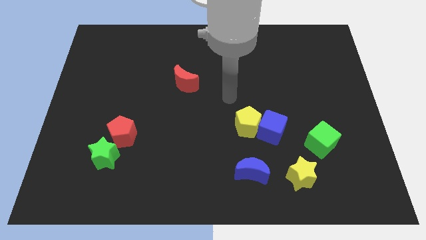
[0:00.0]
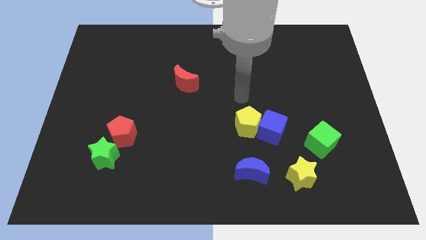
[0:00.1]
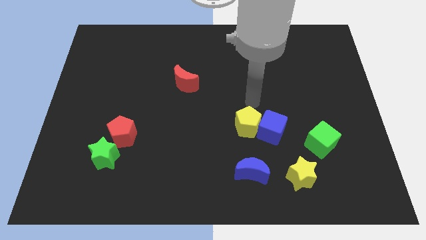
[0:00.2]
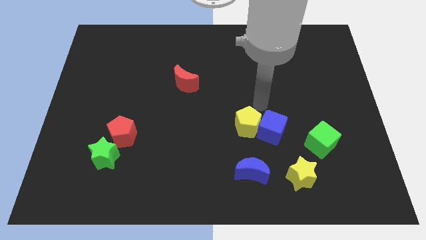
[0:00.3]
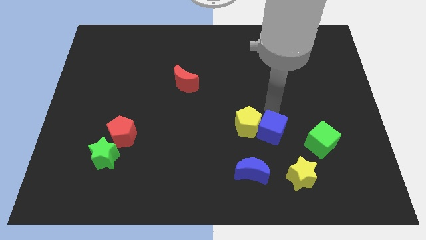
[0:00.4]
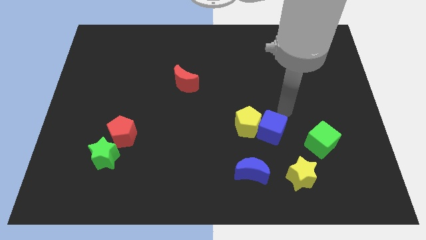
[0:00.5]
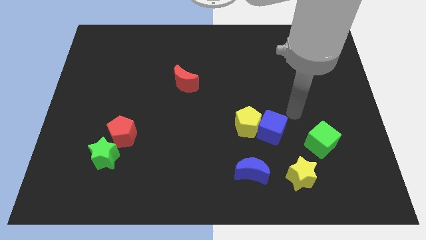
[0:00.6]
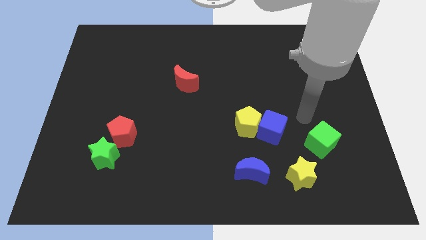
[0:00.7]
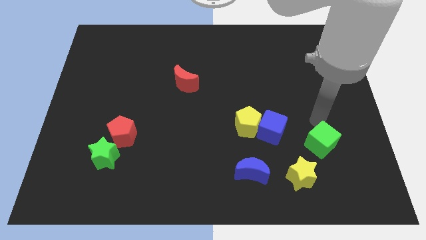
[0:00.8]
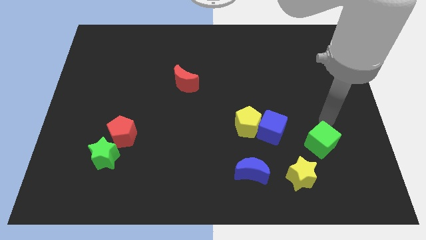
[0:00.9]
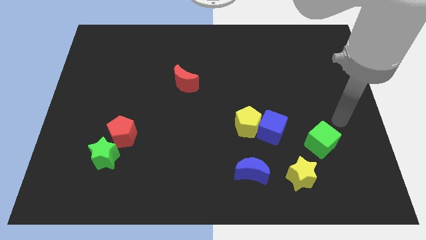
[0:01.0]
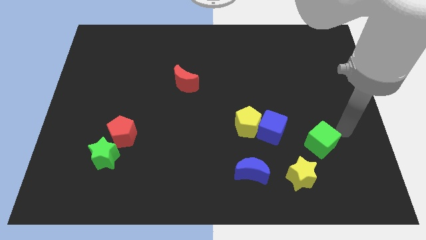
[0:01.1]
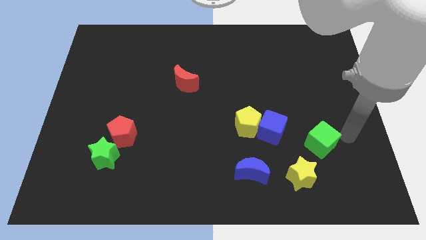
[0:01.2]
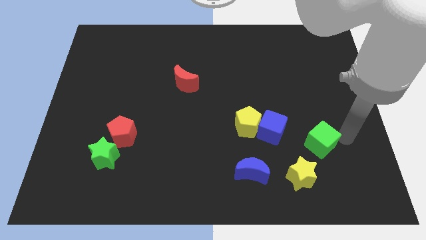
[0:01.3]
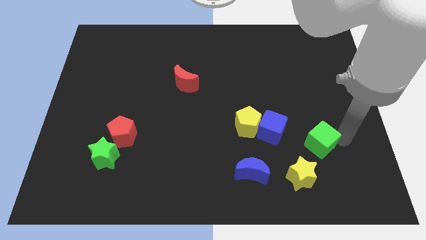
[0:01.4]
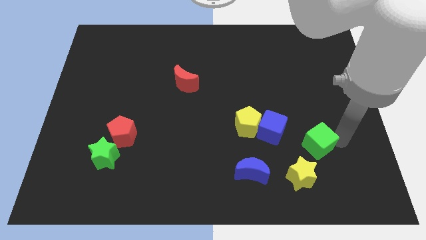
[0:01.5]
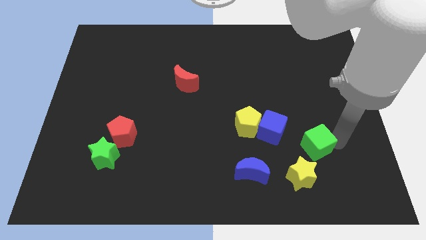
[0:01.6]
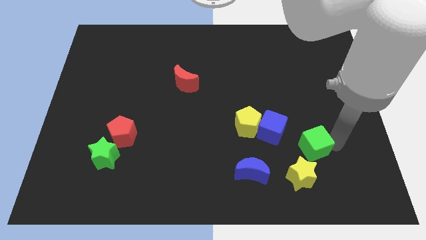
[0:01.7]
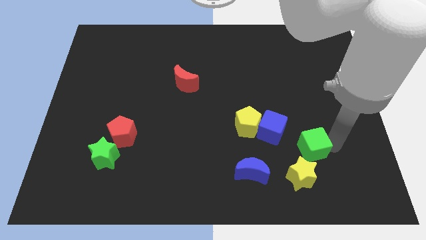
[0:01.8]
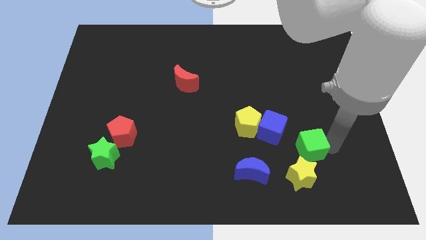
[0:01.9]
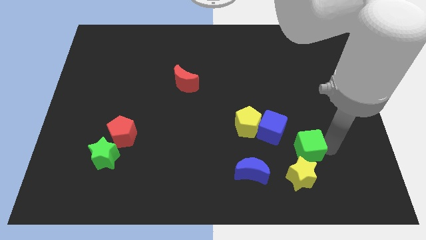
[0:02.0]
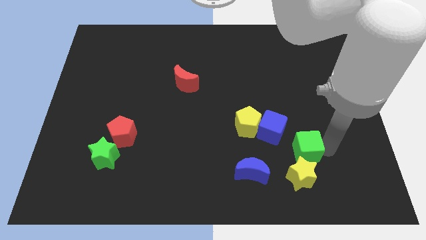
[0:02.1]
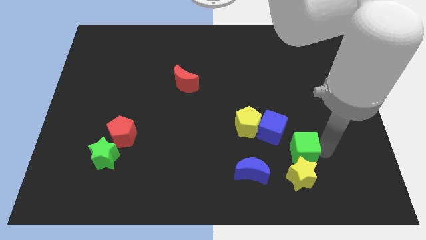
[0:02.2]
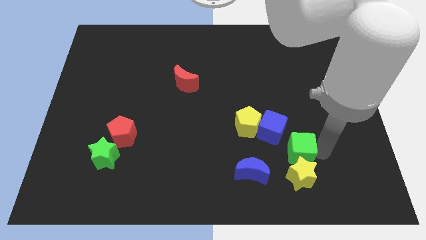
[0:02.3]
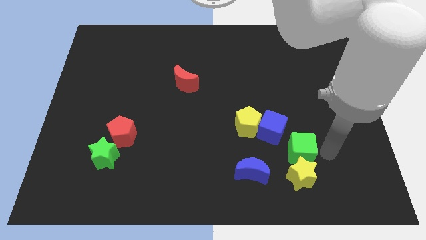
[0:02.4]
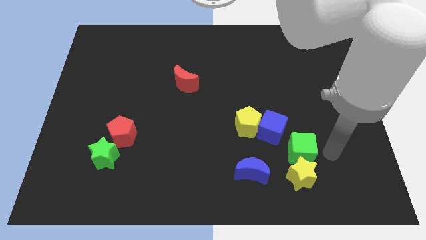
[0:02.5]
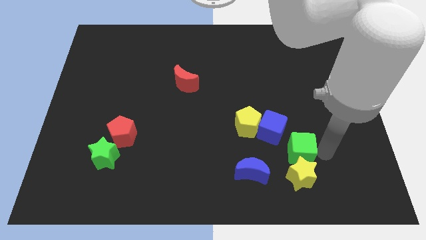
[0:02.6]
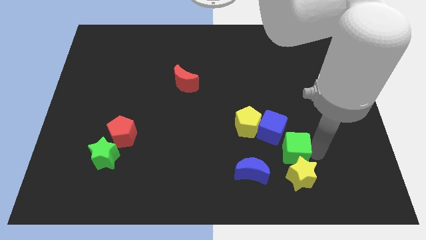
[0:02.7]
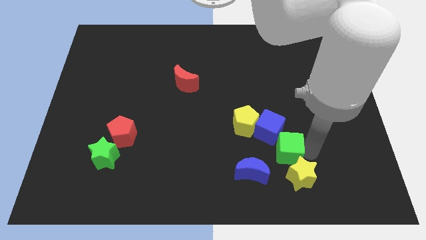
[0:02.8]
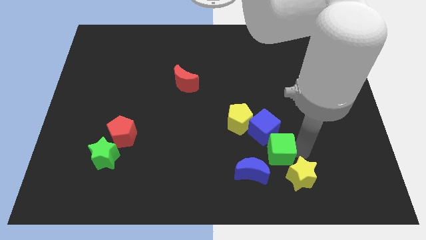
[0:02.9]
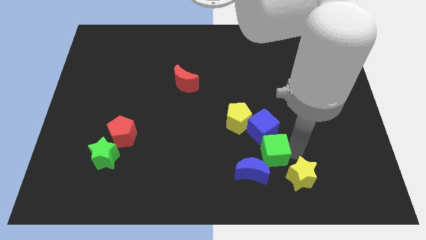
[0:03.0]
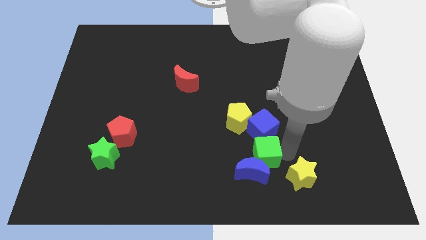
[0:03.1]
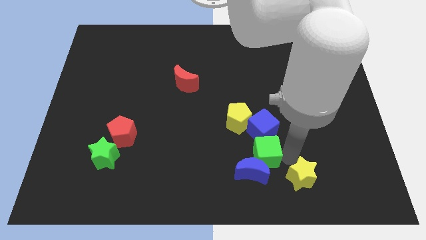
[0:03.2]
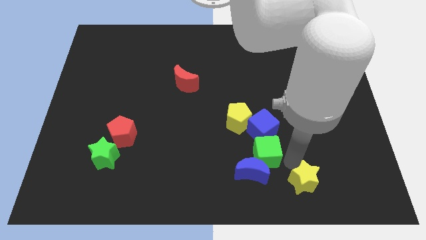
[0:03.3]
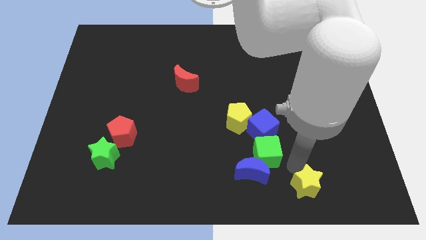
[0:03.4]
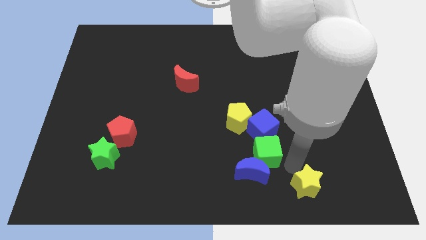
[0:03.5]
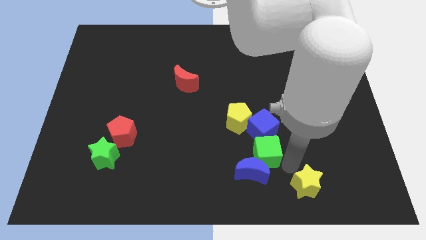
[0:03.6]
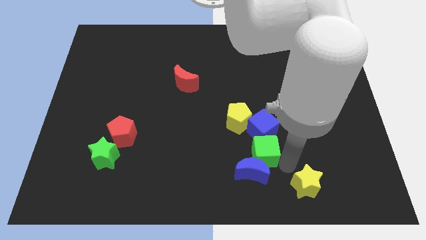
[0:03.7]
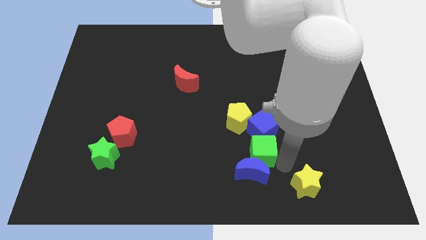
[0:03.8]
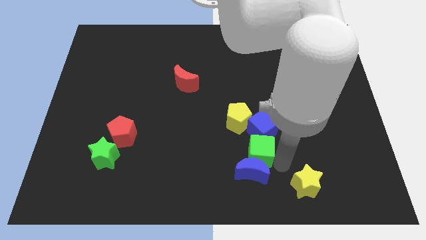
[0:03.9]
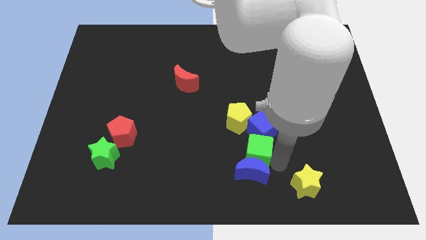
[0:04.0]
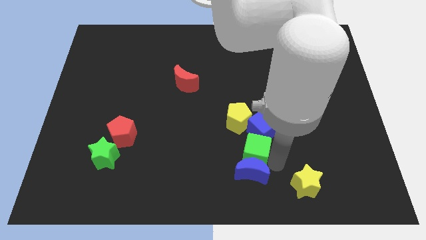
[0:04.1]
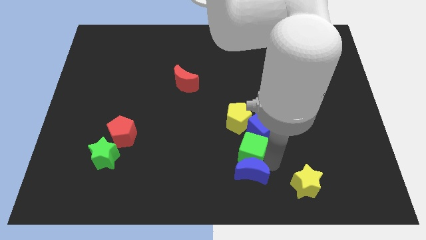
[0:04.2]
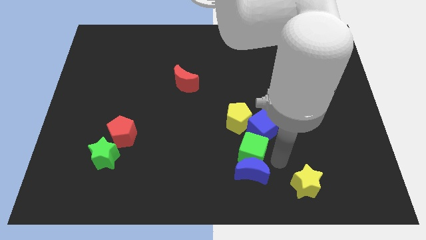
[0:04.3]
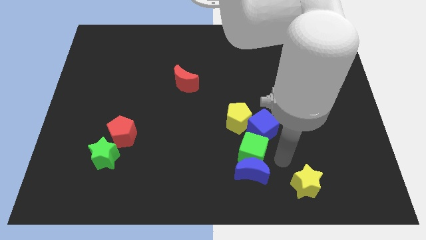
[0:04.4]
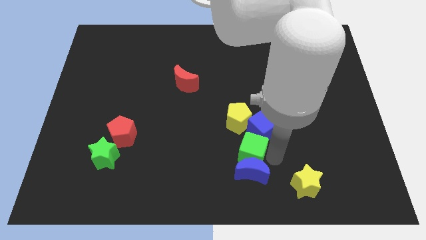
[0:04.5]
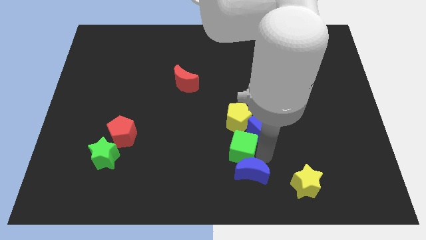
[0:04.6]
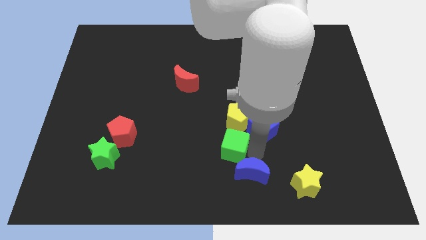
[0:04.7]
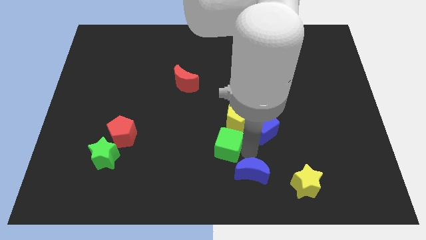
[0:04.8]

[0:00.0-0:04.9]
move the green cube to the left

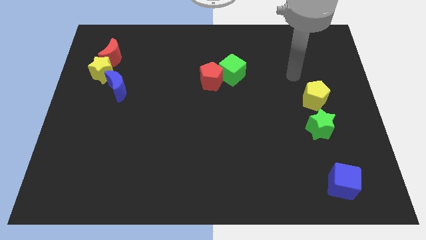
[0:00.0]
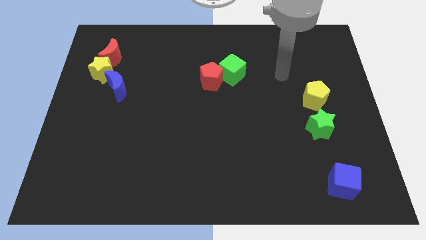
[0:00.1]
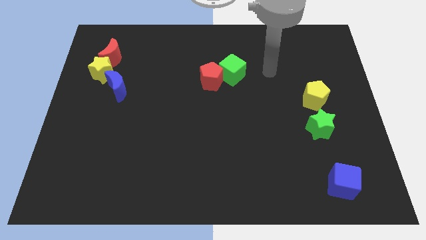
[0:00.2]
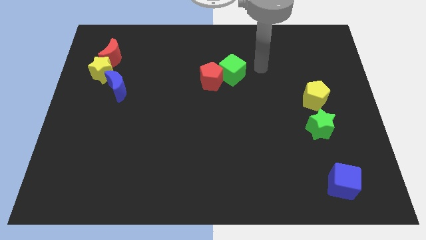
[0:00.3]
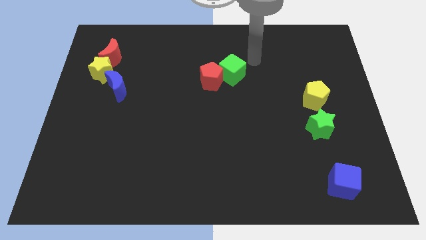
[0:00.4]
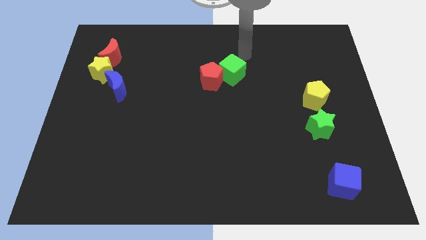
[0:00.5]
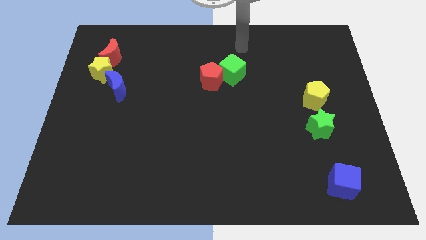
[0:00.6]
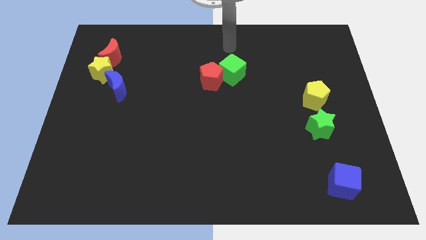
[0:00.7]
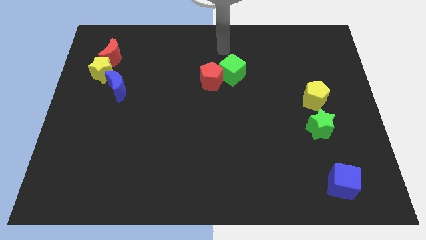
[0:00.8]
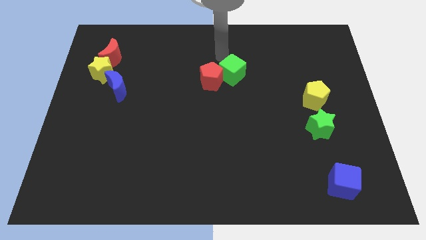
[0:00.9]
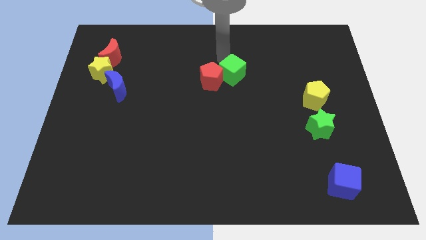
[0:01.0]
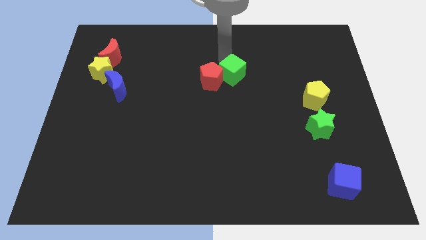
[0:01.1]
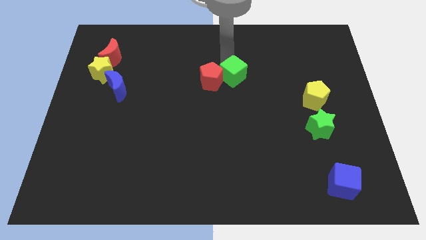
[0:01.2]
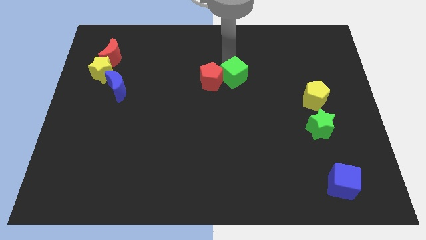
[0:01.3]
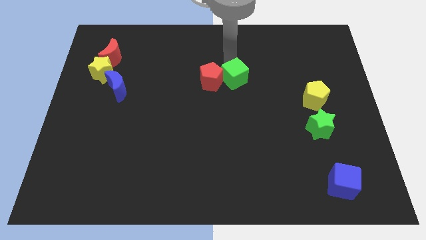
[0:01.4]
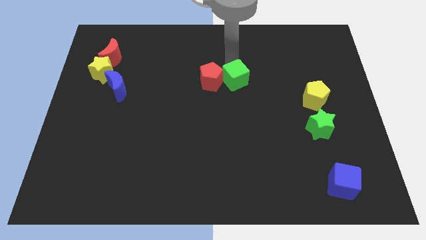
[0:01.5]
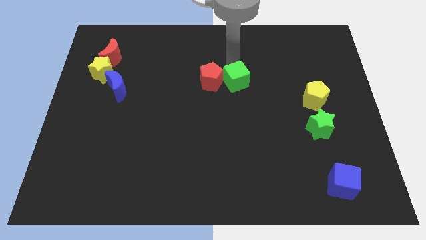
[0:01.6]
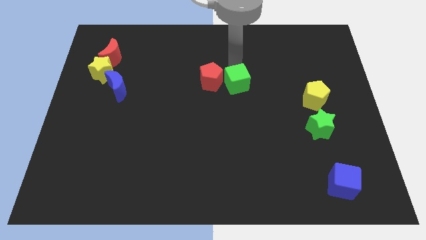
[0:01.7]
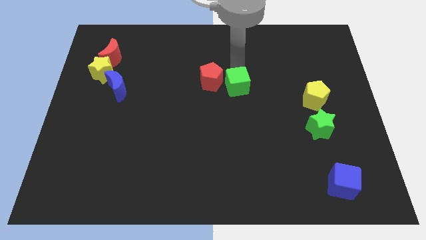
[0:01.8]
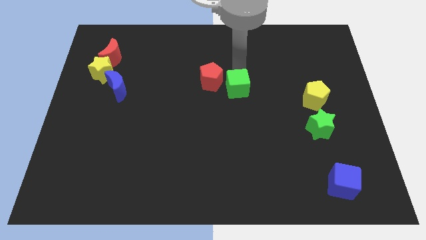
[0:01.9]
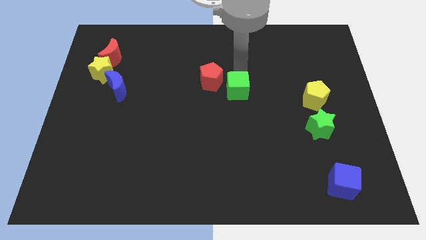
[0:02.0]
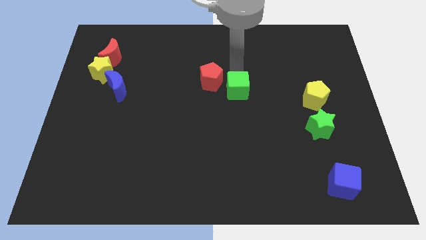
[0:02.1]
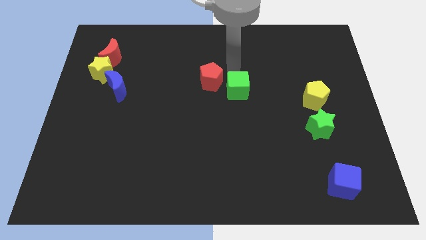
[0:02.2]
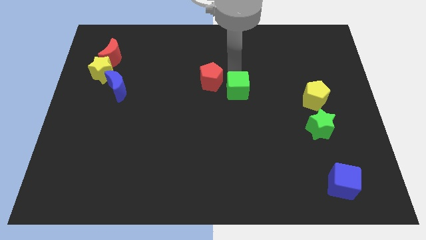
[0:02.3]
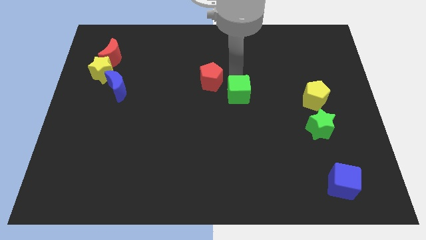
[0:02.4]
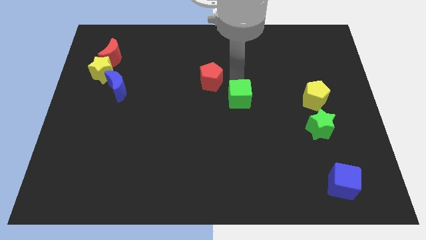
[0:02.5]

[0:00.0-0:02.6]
move the green cube slightly down

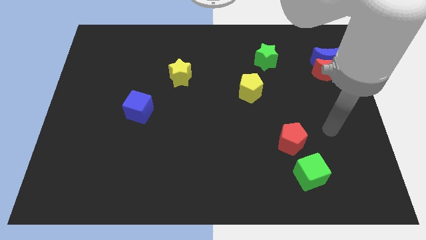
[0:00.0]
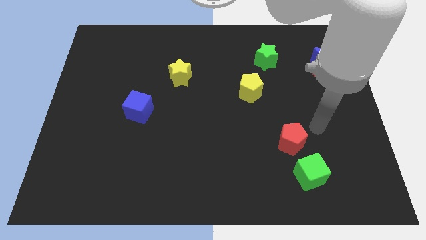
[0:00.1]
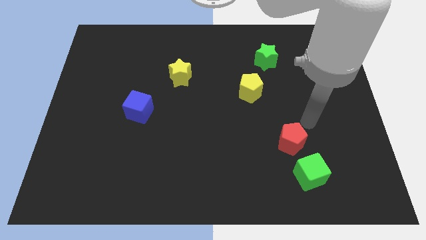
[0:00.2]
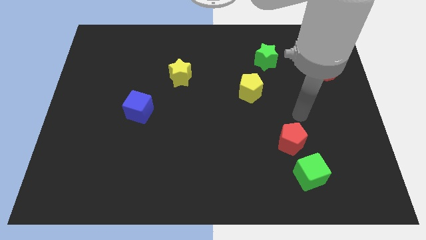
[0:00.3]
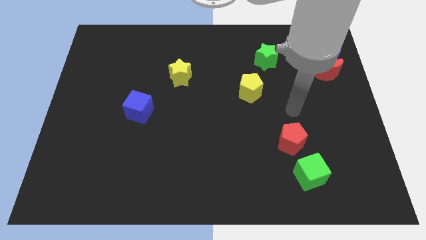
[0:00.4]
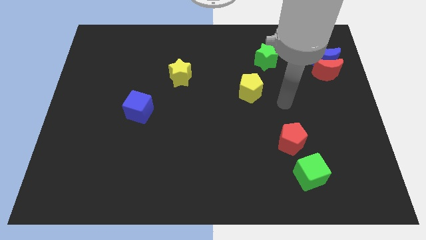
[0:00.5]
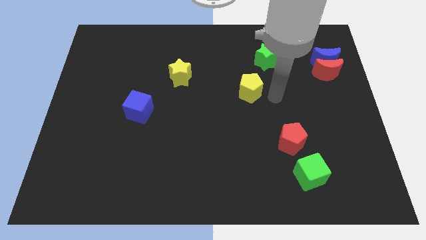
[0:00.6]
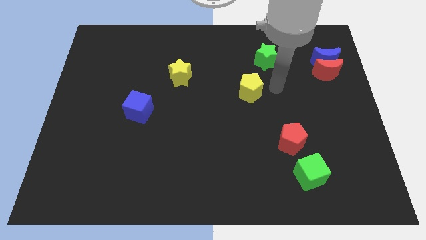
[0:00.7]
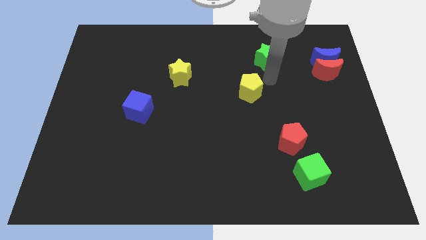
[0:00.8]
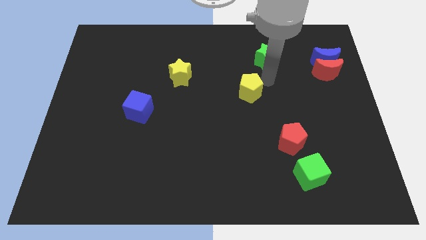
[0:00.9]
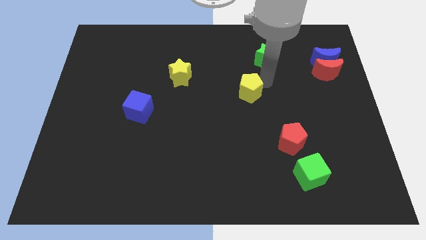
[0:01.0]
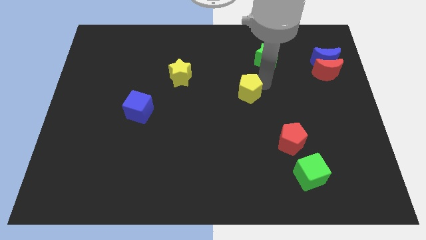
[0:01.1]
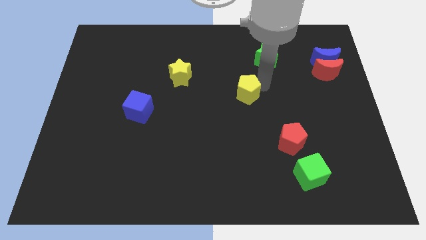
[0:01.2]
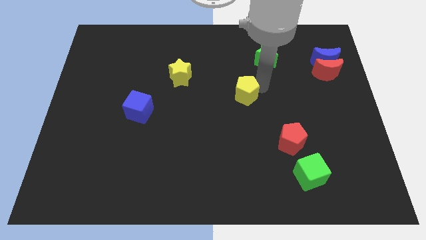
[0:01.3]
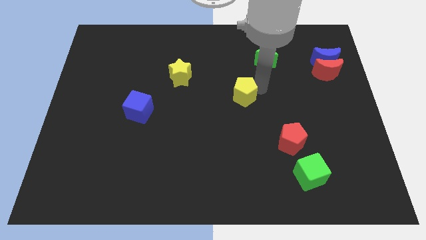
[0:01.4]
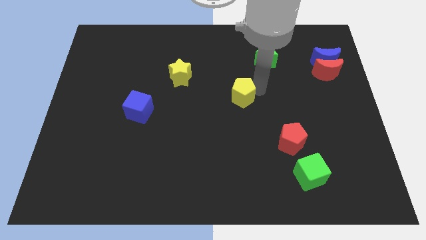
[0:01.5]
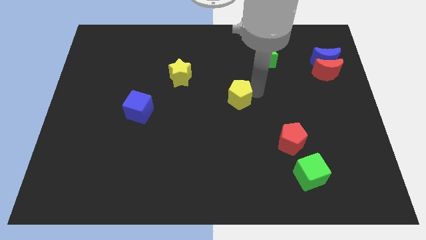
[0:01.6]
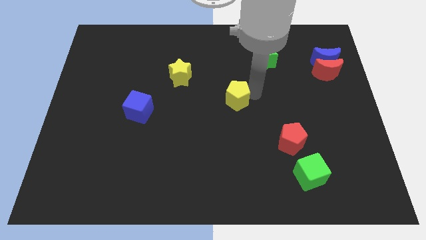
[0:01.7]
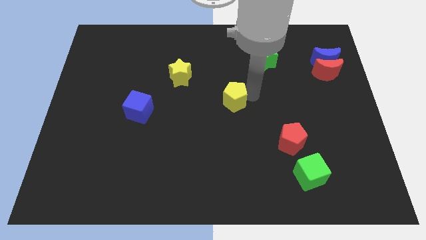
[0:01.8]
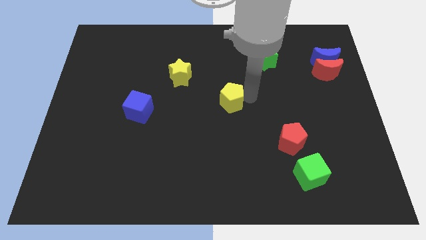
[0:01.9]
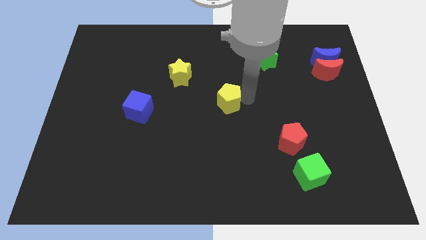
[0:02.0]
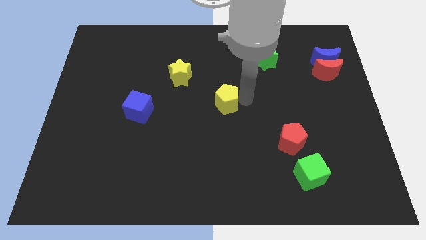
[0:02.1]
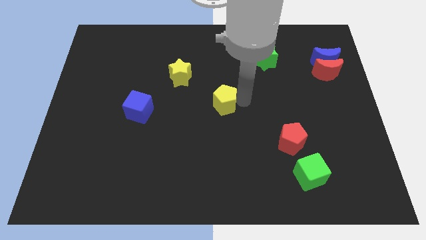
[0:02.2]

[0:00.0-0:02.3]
move the yellow pentagon slightly diagonally down and left
